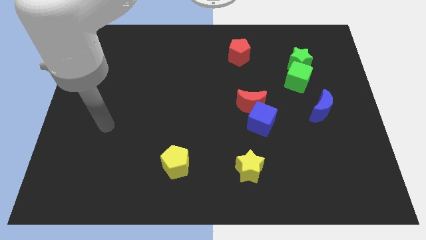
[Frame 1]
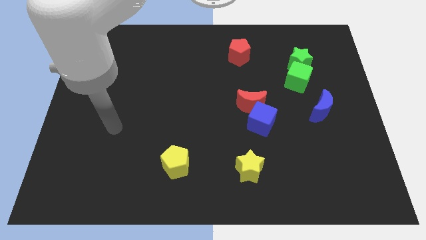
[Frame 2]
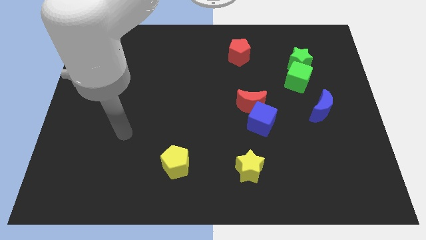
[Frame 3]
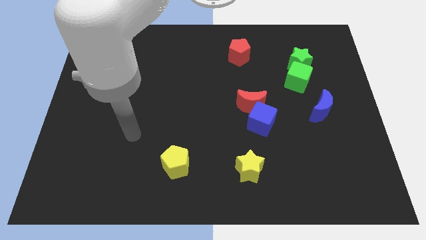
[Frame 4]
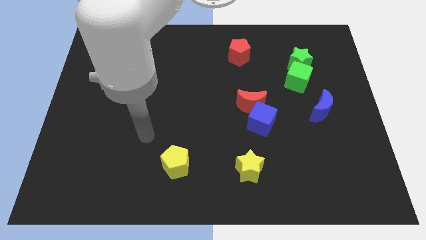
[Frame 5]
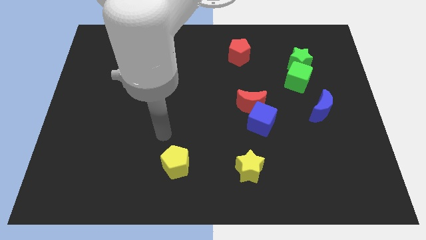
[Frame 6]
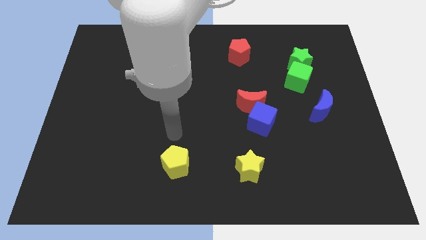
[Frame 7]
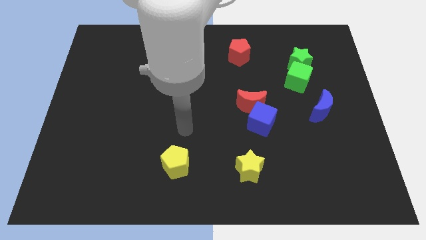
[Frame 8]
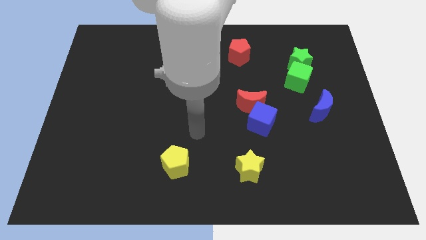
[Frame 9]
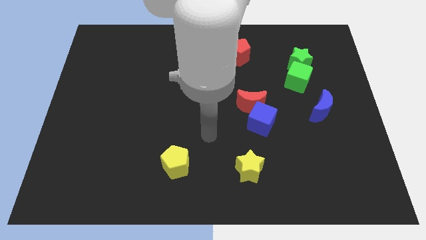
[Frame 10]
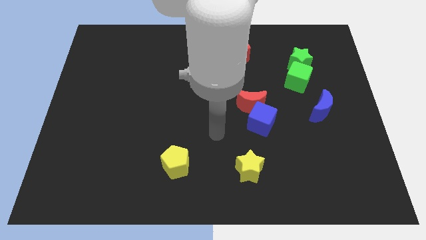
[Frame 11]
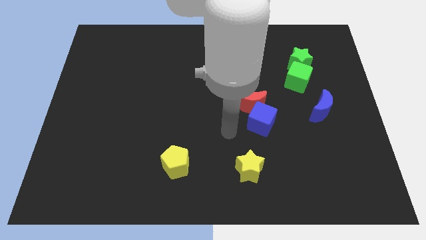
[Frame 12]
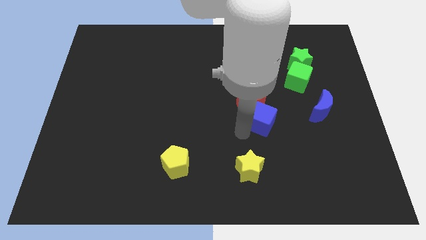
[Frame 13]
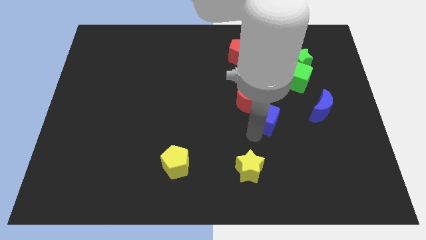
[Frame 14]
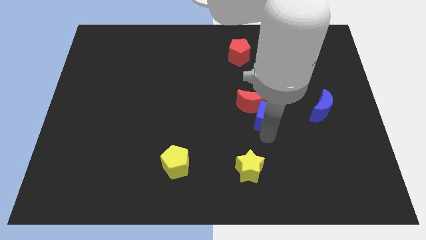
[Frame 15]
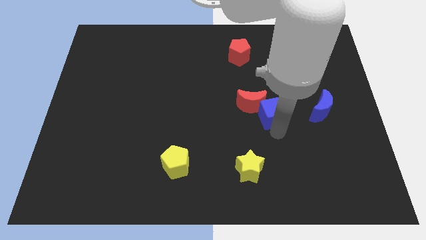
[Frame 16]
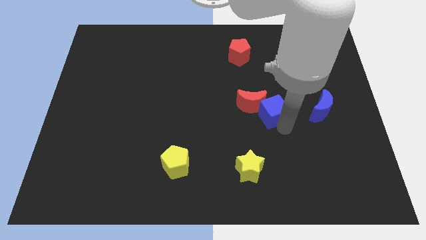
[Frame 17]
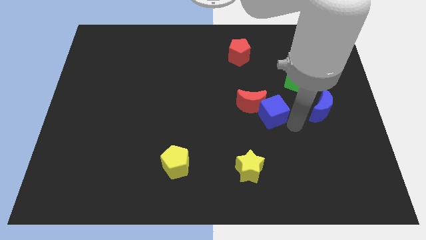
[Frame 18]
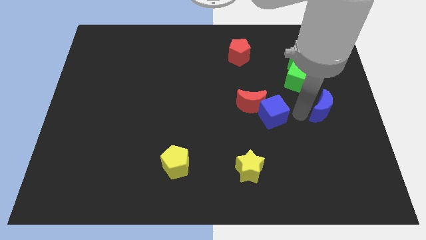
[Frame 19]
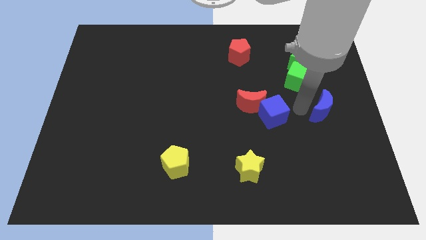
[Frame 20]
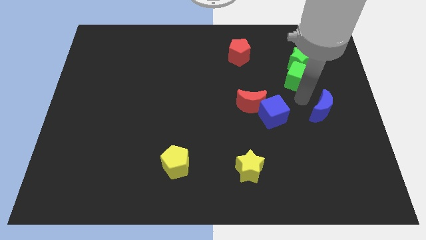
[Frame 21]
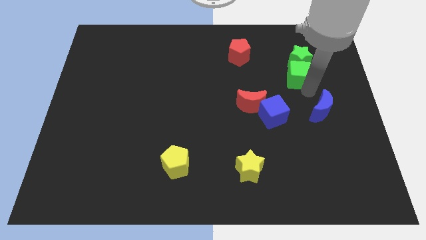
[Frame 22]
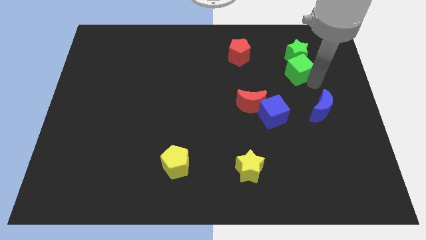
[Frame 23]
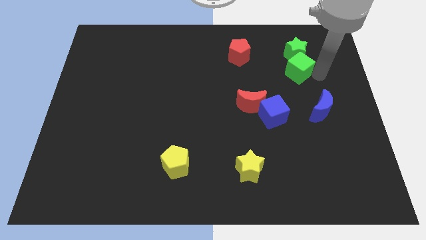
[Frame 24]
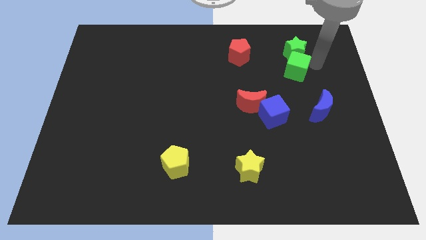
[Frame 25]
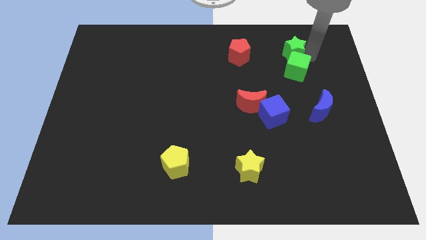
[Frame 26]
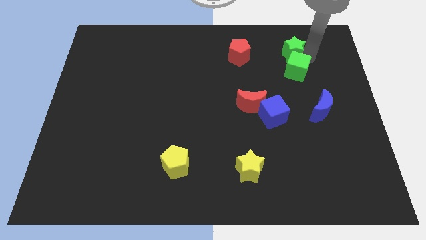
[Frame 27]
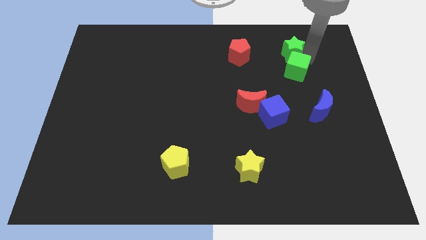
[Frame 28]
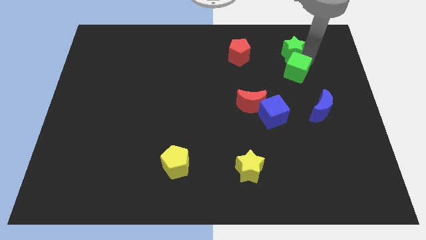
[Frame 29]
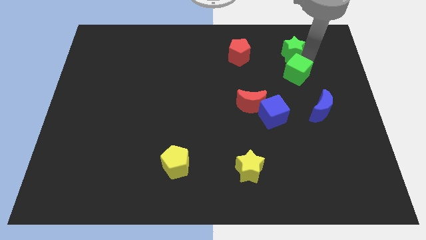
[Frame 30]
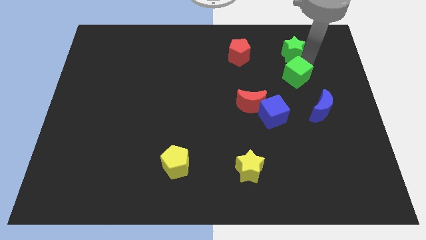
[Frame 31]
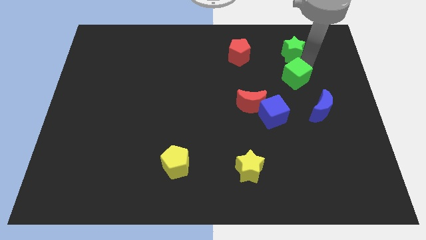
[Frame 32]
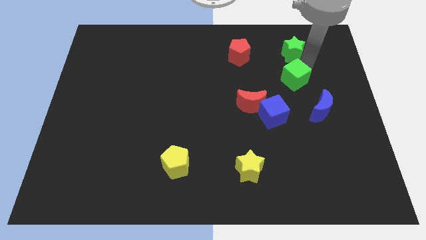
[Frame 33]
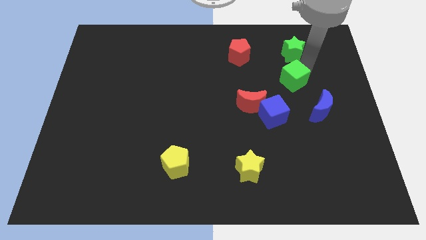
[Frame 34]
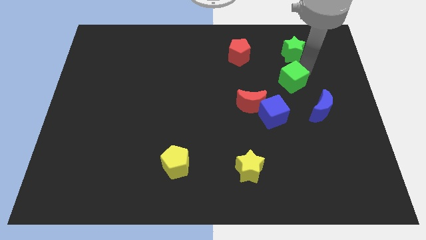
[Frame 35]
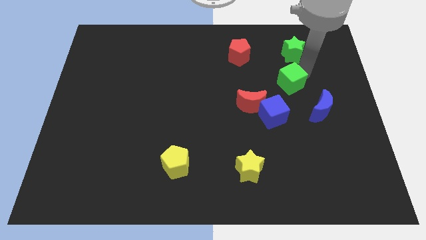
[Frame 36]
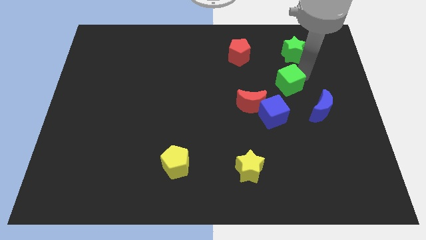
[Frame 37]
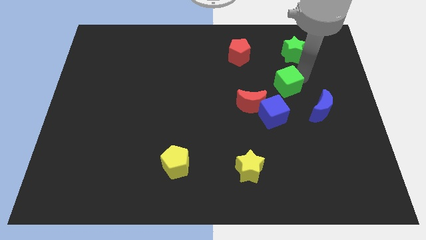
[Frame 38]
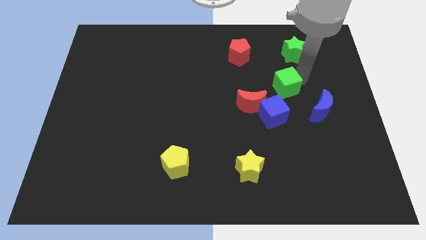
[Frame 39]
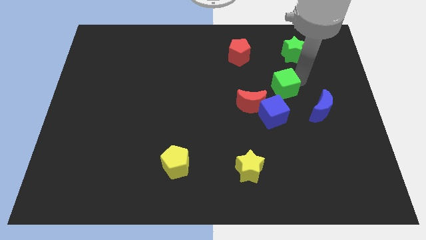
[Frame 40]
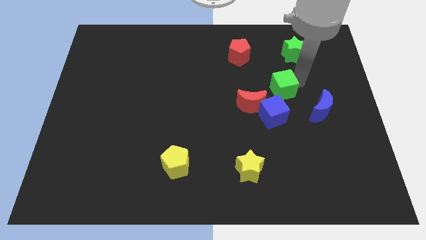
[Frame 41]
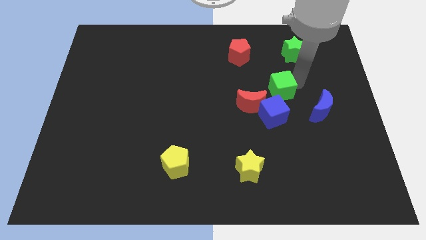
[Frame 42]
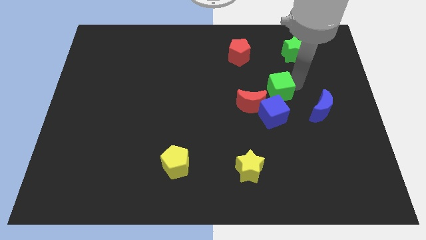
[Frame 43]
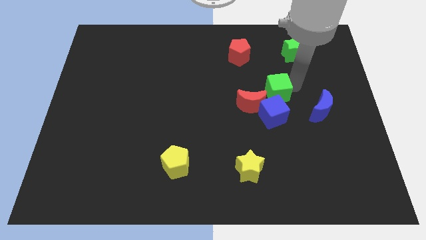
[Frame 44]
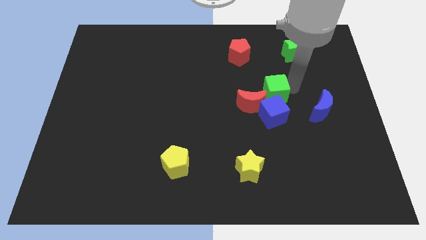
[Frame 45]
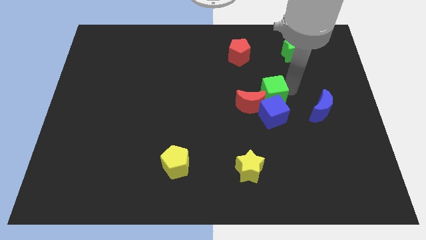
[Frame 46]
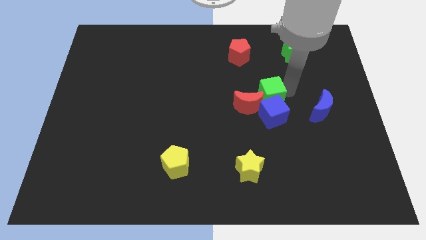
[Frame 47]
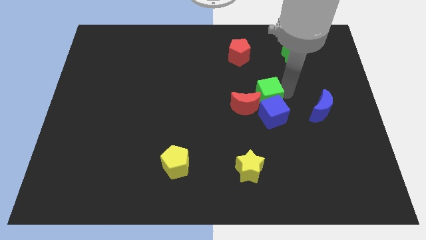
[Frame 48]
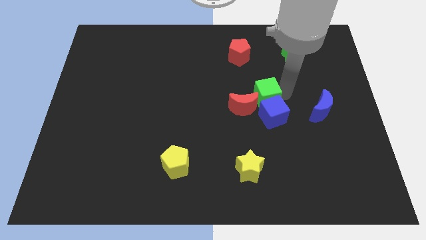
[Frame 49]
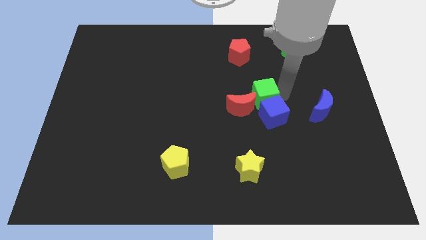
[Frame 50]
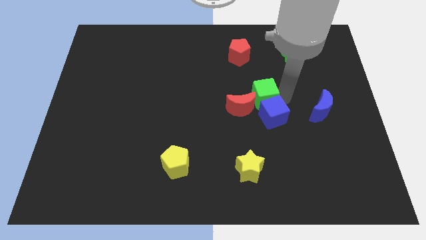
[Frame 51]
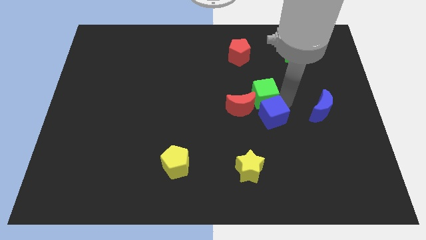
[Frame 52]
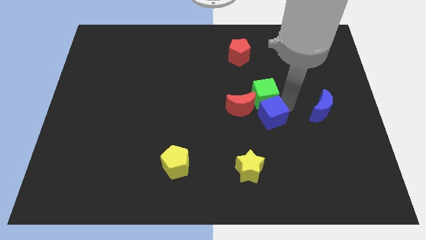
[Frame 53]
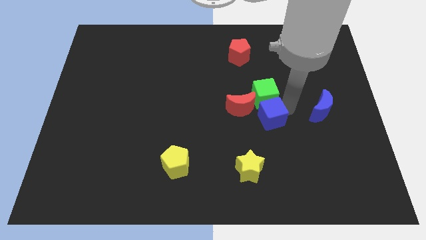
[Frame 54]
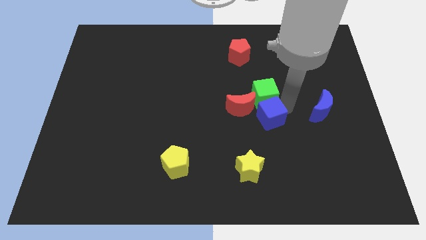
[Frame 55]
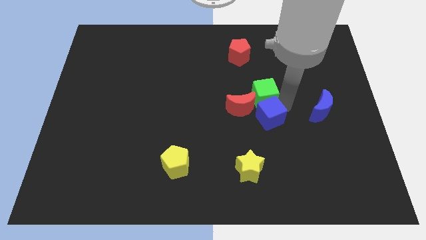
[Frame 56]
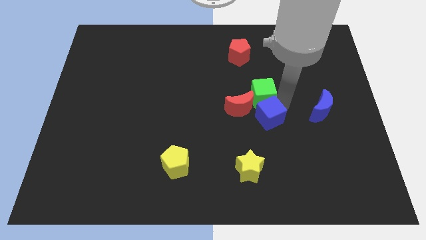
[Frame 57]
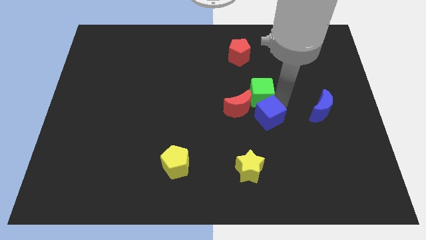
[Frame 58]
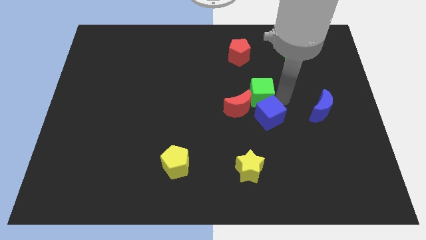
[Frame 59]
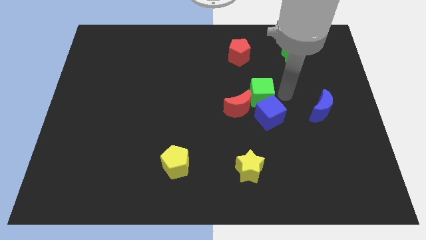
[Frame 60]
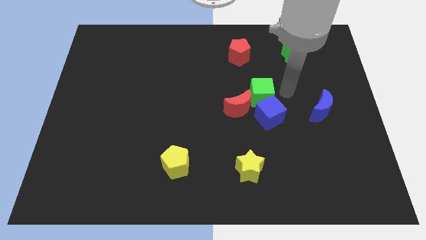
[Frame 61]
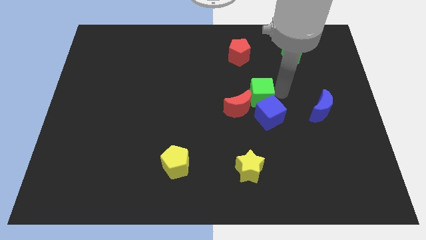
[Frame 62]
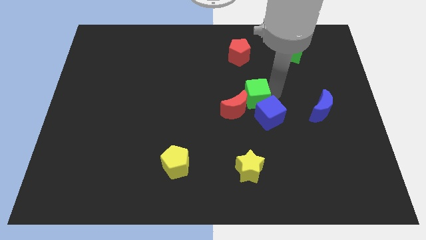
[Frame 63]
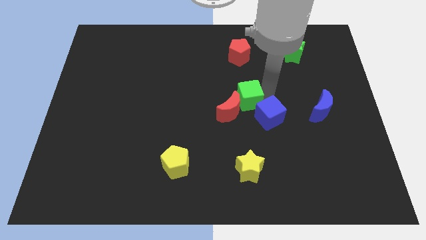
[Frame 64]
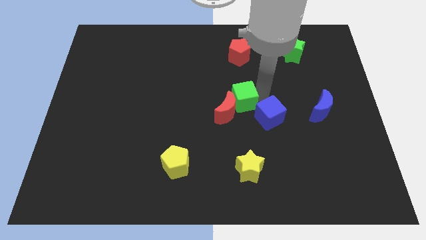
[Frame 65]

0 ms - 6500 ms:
slide the green cube just left of the blue cube
